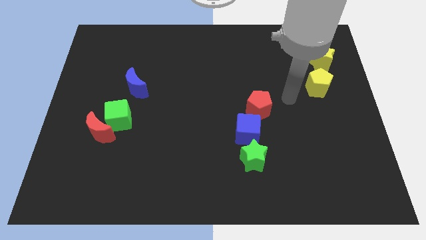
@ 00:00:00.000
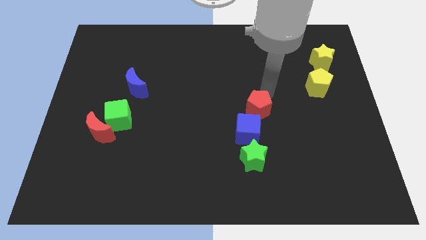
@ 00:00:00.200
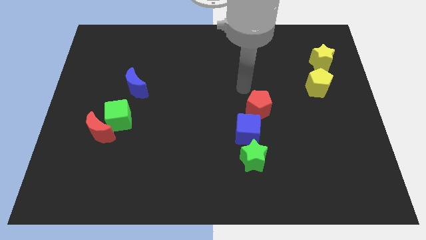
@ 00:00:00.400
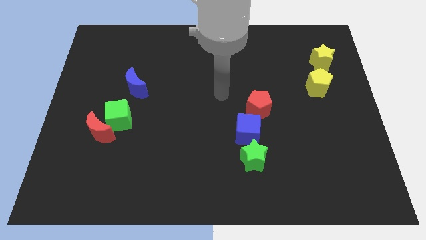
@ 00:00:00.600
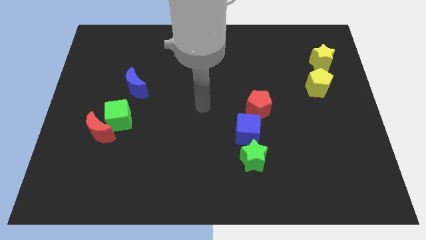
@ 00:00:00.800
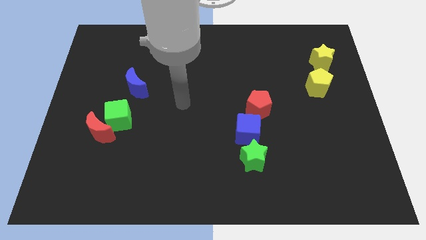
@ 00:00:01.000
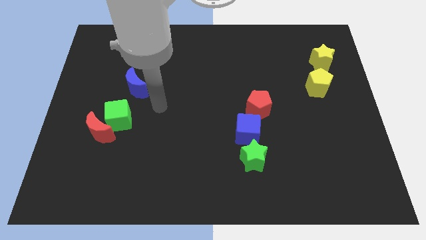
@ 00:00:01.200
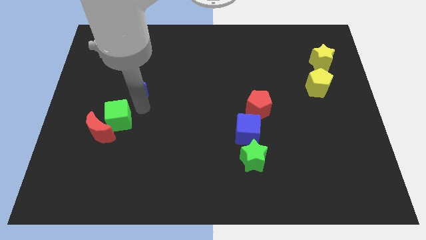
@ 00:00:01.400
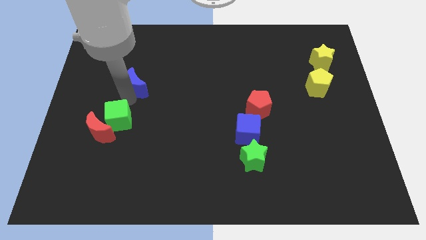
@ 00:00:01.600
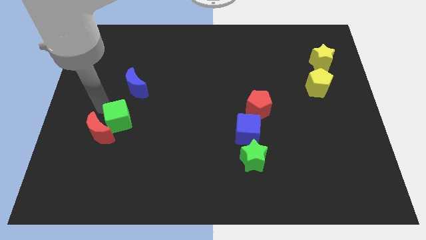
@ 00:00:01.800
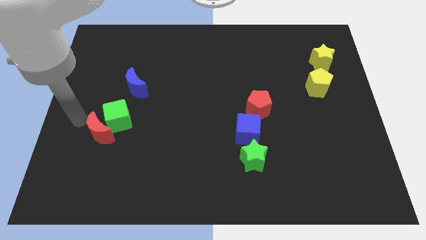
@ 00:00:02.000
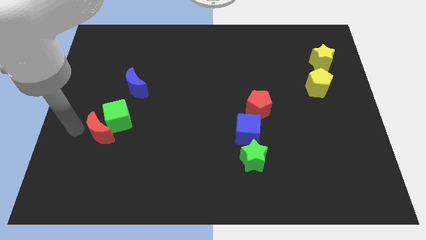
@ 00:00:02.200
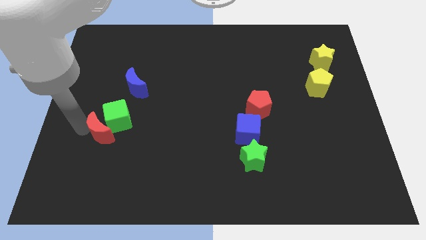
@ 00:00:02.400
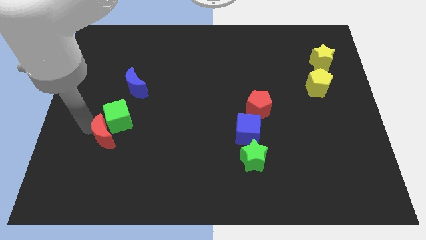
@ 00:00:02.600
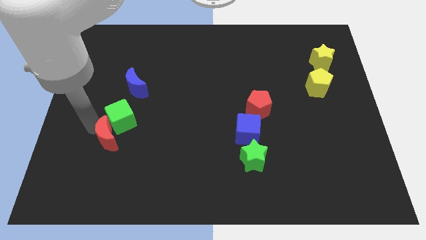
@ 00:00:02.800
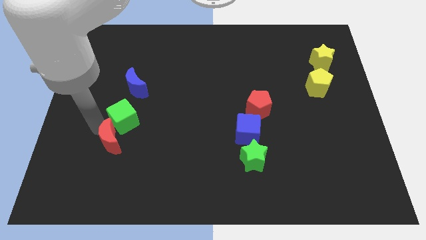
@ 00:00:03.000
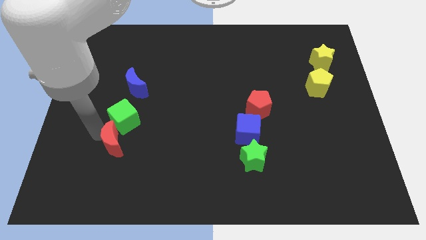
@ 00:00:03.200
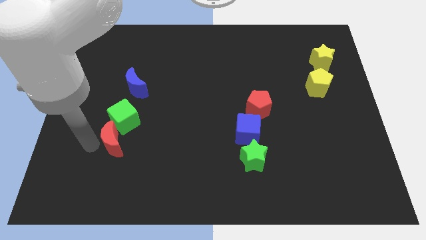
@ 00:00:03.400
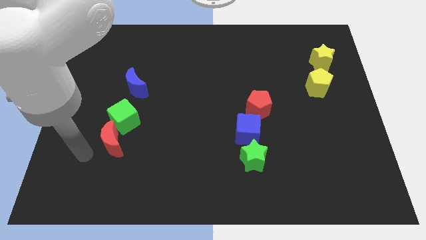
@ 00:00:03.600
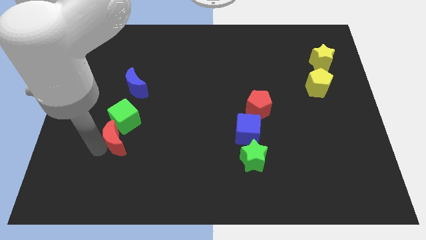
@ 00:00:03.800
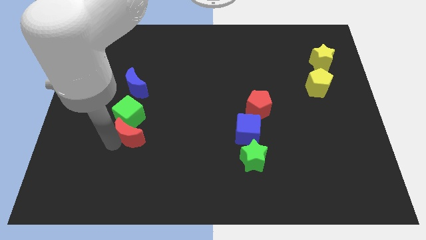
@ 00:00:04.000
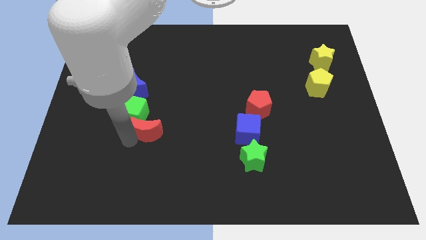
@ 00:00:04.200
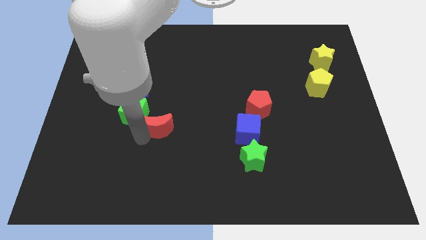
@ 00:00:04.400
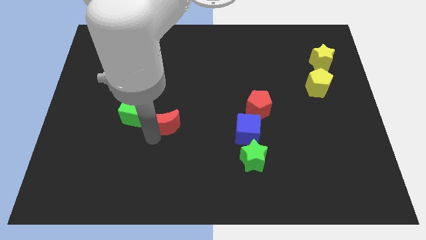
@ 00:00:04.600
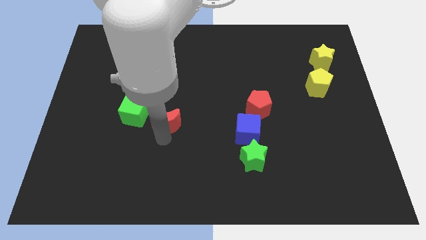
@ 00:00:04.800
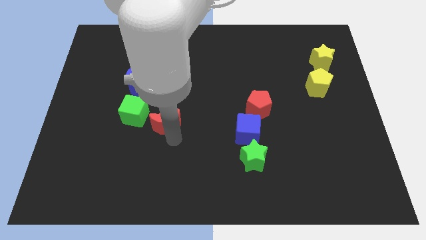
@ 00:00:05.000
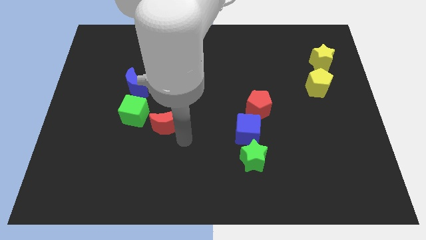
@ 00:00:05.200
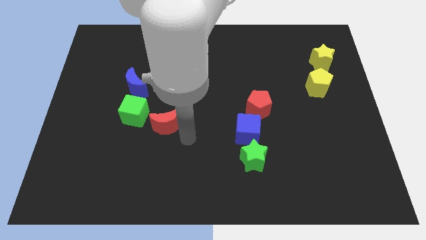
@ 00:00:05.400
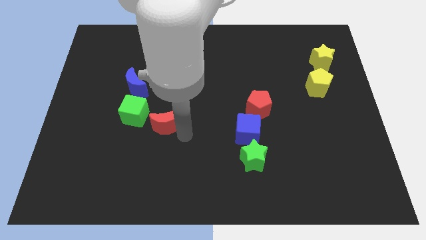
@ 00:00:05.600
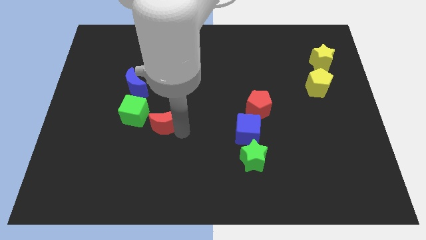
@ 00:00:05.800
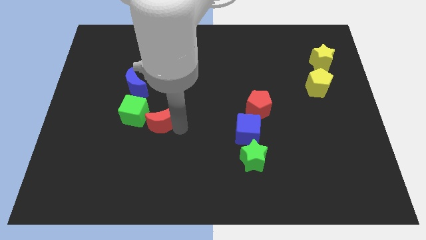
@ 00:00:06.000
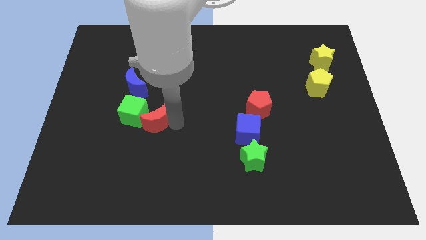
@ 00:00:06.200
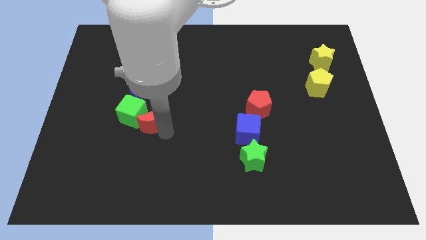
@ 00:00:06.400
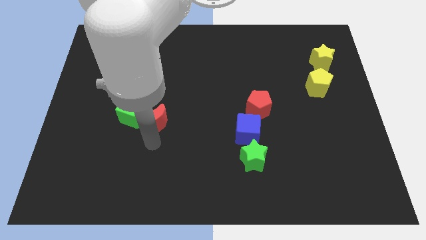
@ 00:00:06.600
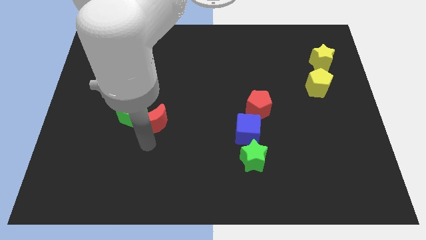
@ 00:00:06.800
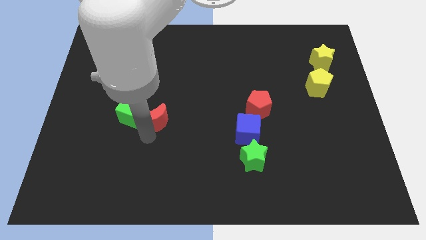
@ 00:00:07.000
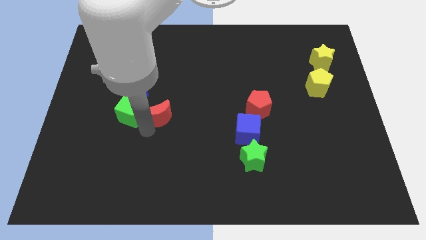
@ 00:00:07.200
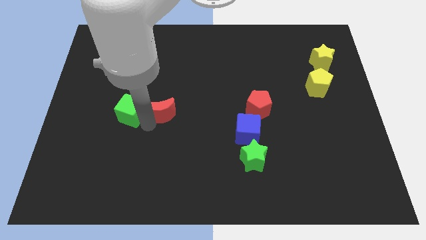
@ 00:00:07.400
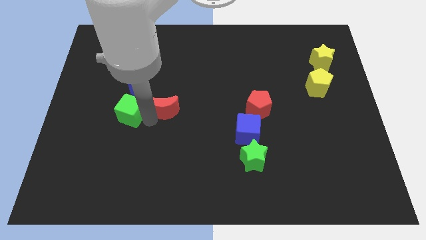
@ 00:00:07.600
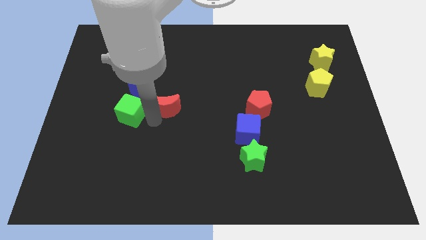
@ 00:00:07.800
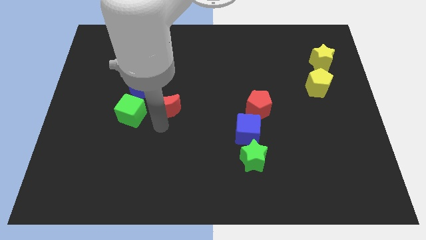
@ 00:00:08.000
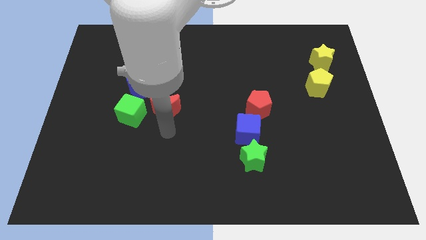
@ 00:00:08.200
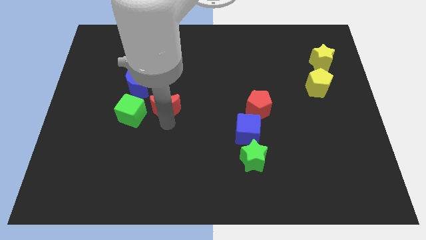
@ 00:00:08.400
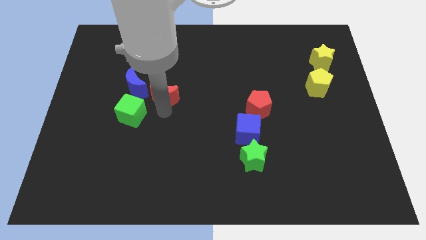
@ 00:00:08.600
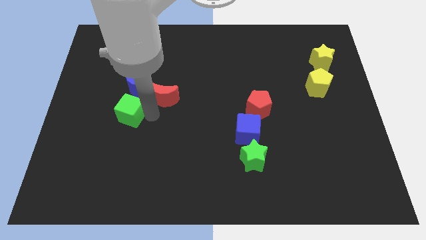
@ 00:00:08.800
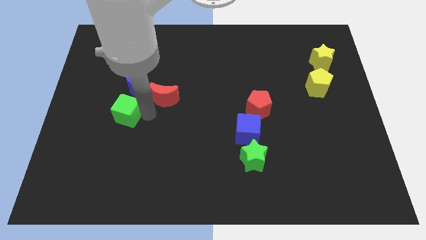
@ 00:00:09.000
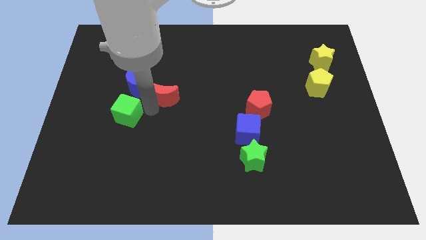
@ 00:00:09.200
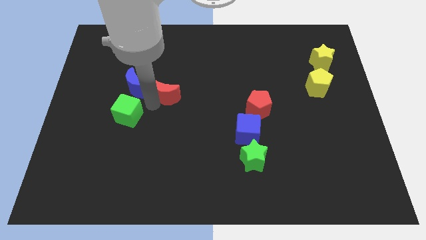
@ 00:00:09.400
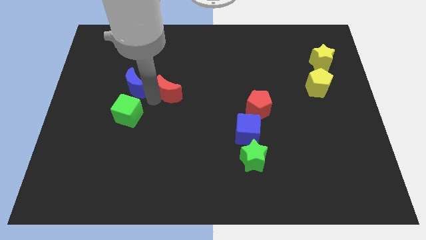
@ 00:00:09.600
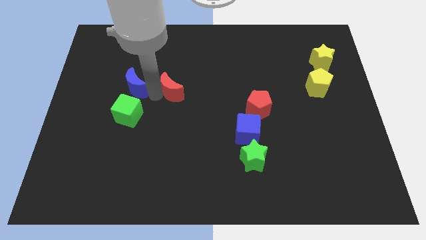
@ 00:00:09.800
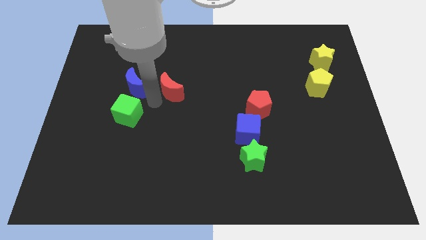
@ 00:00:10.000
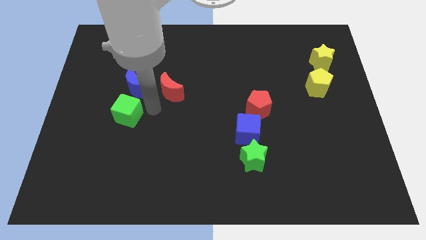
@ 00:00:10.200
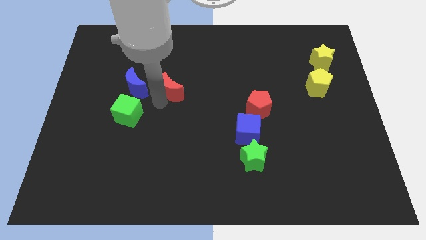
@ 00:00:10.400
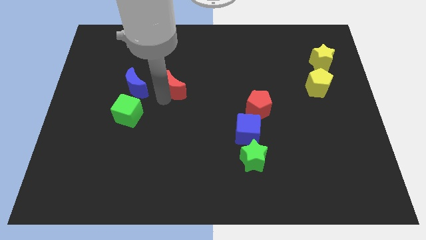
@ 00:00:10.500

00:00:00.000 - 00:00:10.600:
slide the red moon up and then right

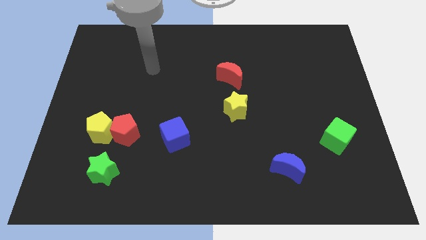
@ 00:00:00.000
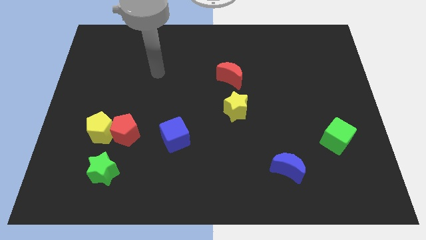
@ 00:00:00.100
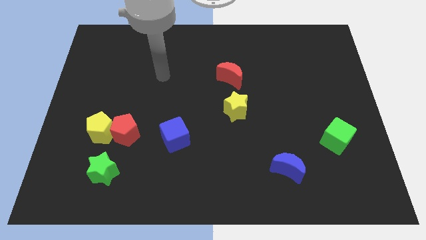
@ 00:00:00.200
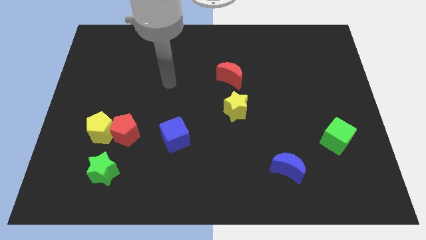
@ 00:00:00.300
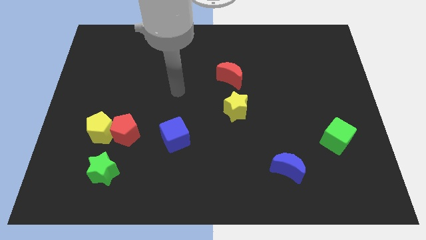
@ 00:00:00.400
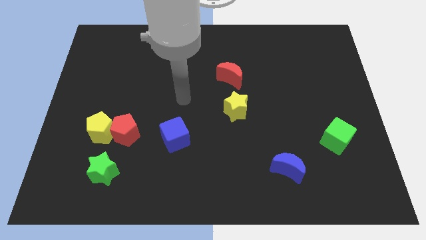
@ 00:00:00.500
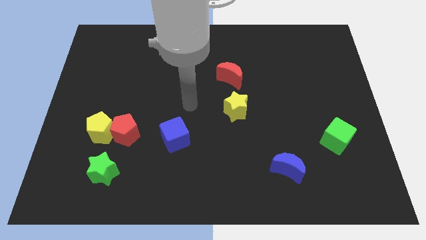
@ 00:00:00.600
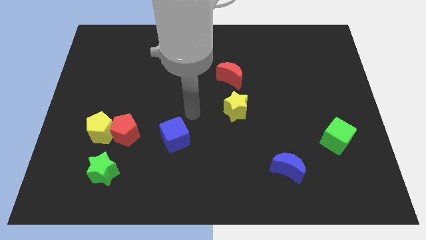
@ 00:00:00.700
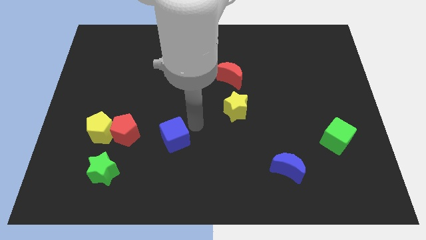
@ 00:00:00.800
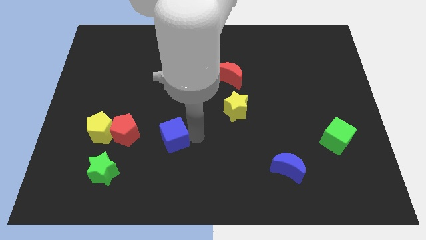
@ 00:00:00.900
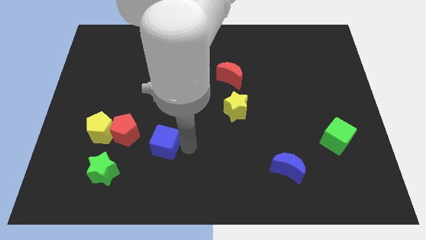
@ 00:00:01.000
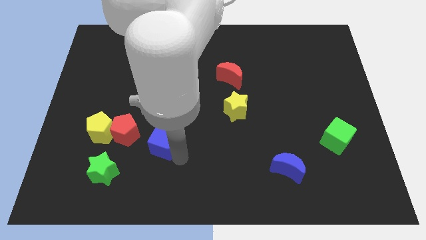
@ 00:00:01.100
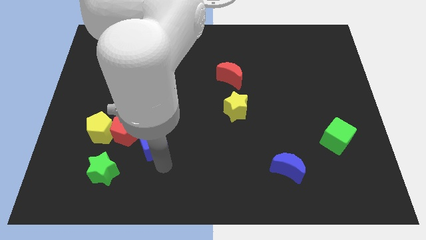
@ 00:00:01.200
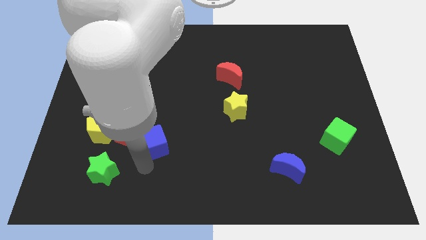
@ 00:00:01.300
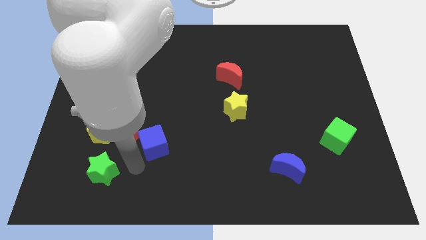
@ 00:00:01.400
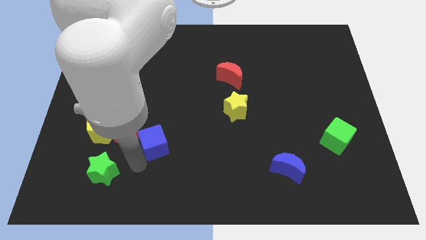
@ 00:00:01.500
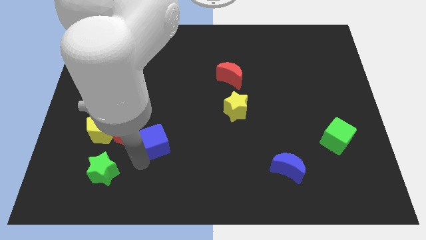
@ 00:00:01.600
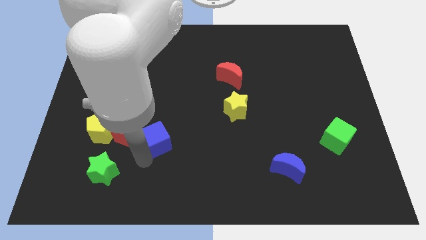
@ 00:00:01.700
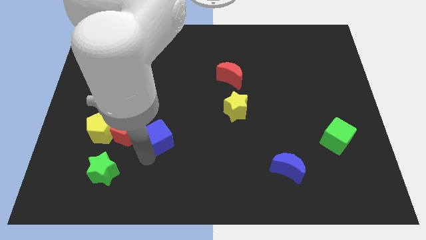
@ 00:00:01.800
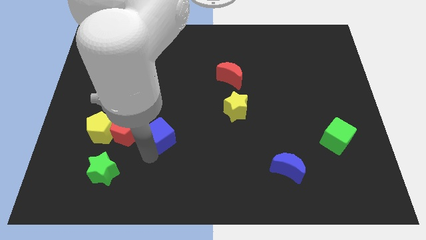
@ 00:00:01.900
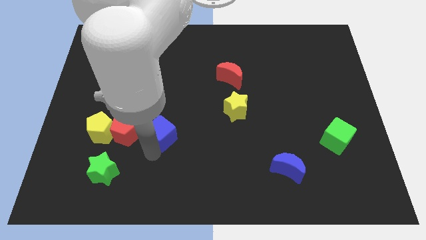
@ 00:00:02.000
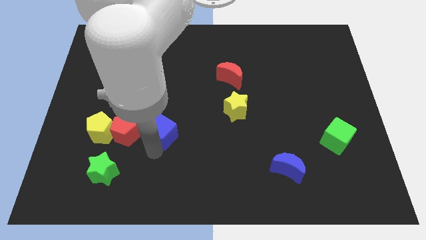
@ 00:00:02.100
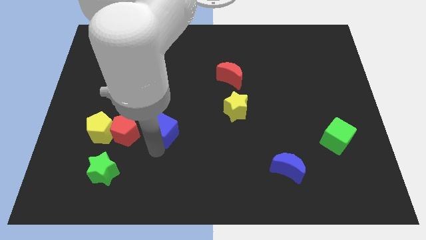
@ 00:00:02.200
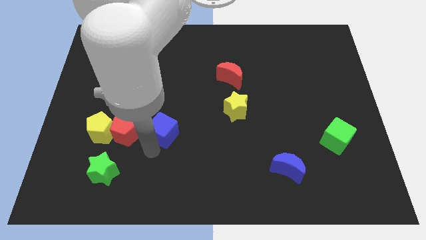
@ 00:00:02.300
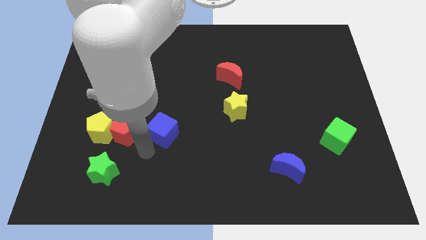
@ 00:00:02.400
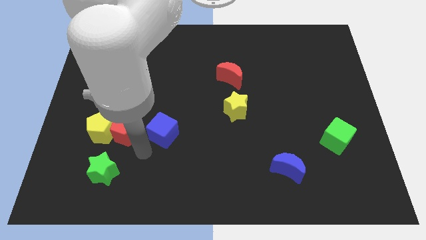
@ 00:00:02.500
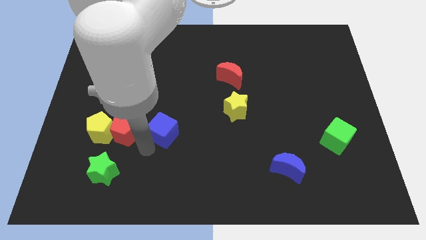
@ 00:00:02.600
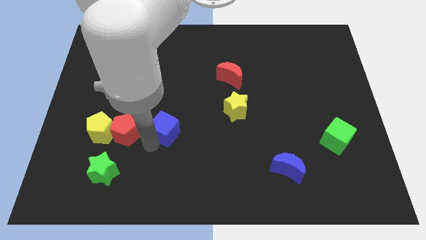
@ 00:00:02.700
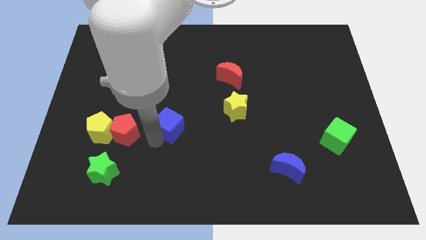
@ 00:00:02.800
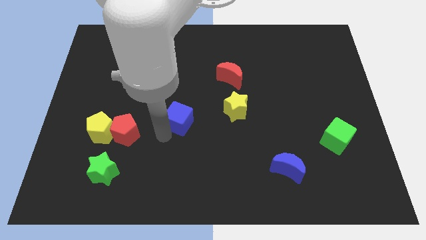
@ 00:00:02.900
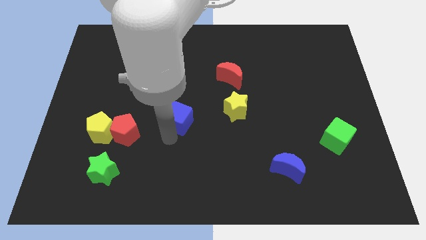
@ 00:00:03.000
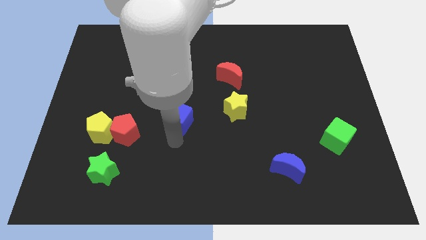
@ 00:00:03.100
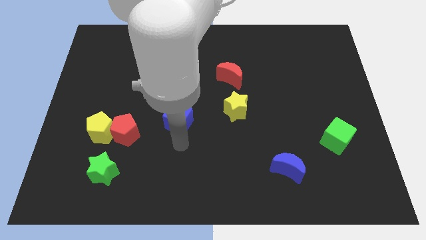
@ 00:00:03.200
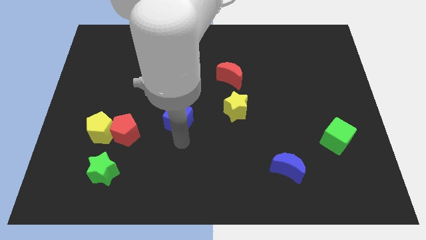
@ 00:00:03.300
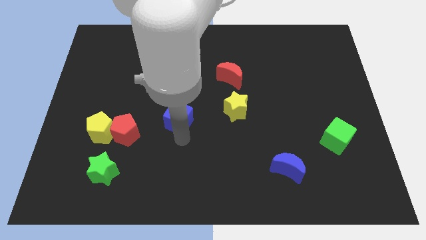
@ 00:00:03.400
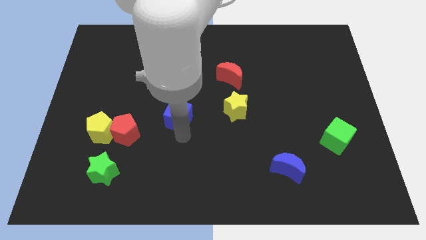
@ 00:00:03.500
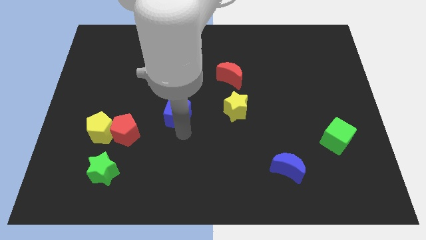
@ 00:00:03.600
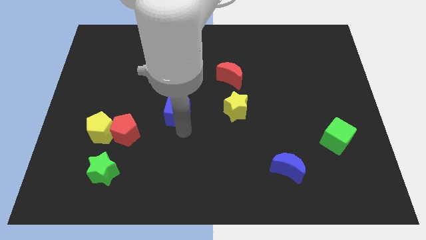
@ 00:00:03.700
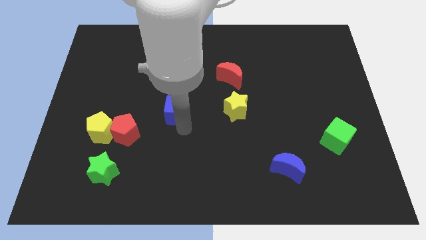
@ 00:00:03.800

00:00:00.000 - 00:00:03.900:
push the blue cube upwards slightly
